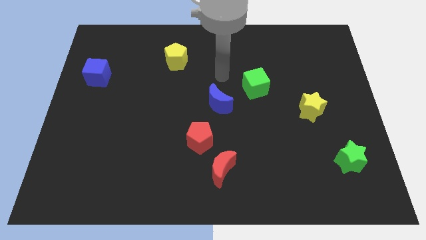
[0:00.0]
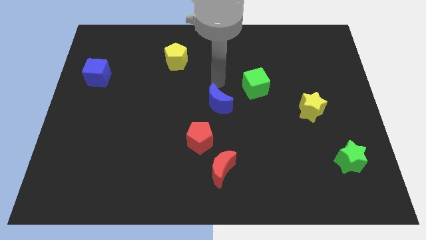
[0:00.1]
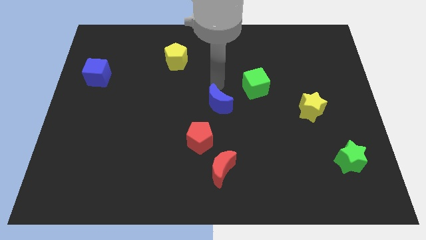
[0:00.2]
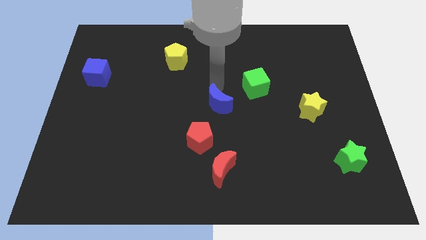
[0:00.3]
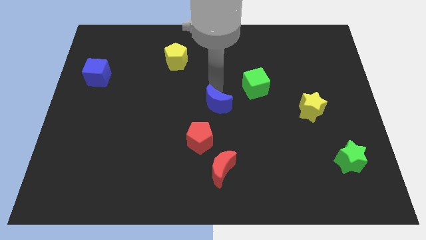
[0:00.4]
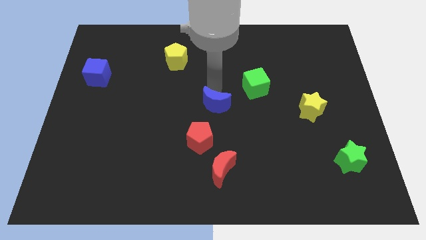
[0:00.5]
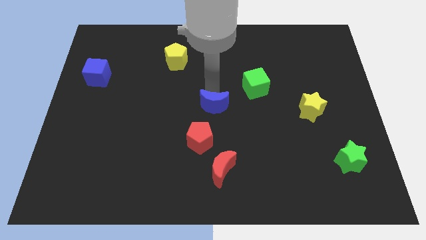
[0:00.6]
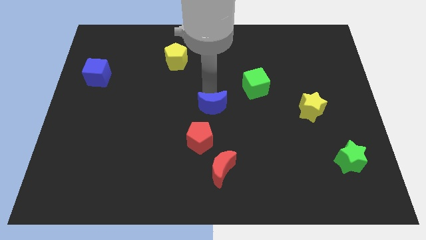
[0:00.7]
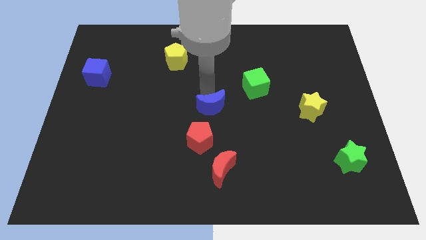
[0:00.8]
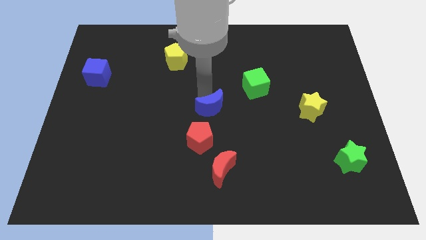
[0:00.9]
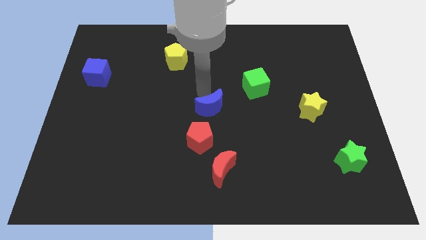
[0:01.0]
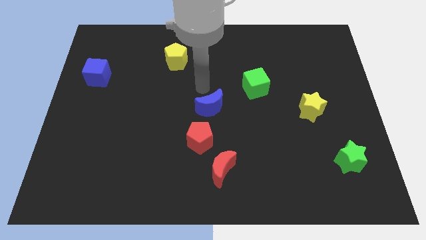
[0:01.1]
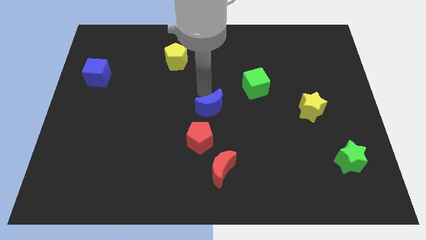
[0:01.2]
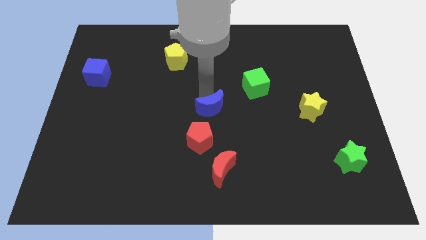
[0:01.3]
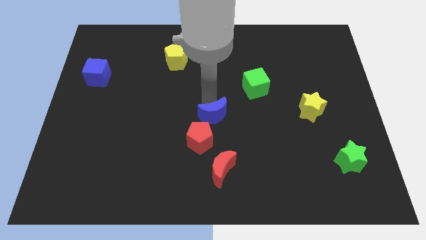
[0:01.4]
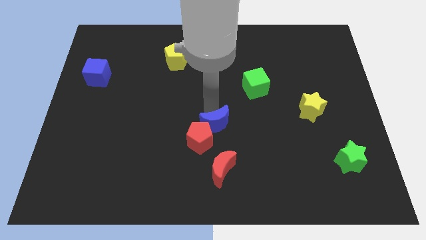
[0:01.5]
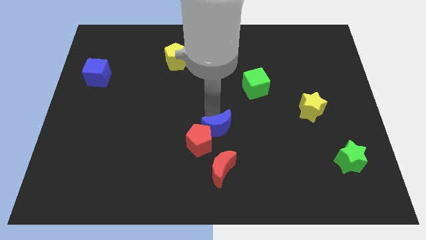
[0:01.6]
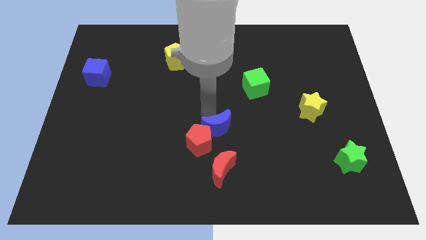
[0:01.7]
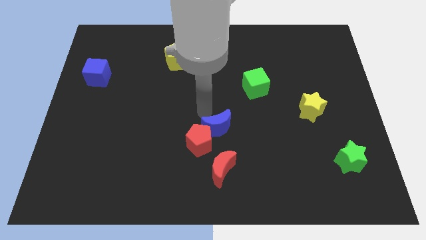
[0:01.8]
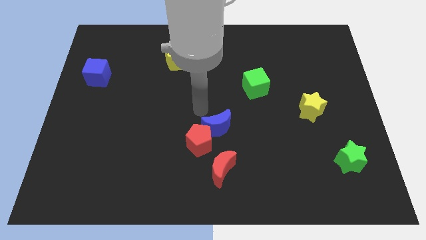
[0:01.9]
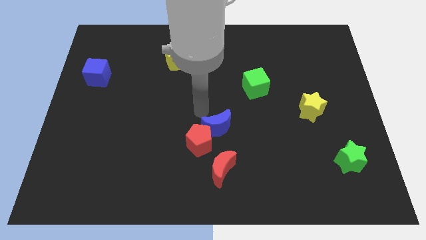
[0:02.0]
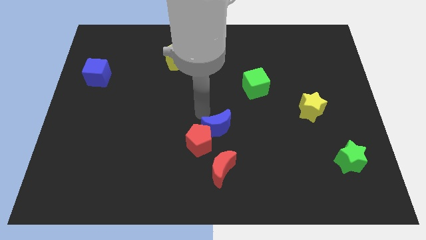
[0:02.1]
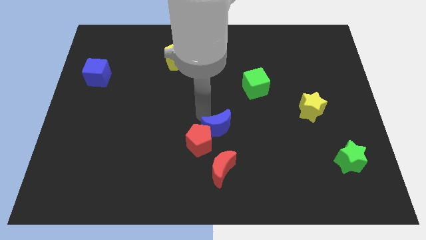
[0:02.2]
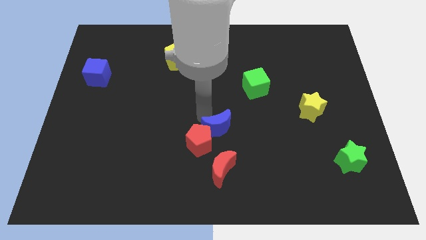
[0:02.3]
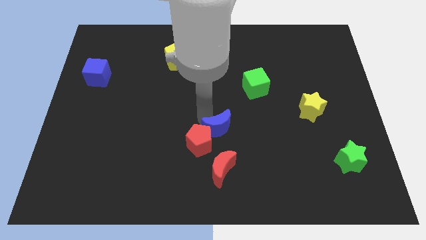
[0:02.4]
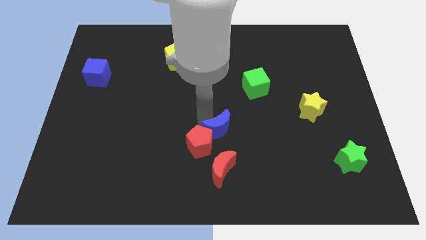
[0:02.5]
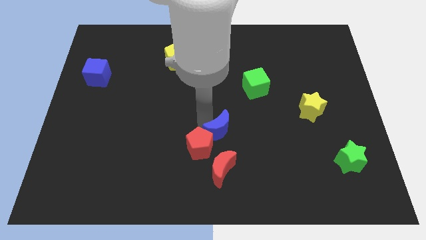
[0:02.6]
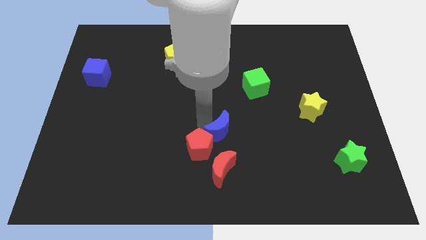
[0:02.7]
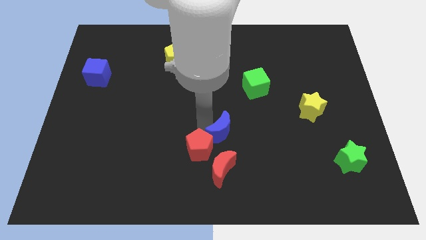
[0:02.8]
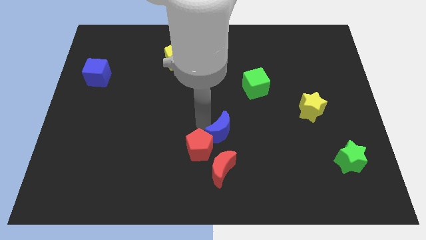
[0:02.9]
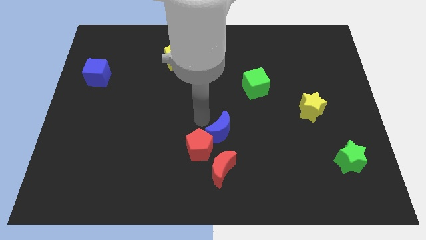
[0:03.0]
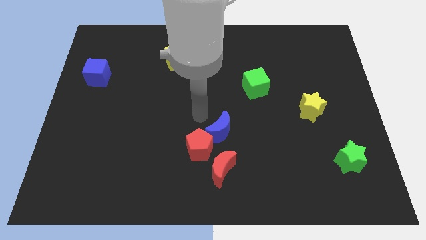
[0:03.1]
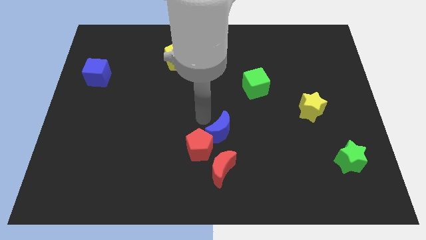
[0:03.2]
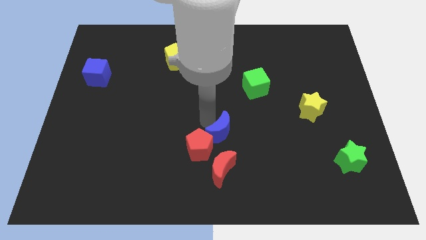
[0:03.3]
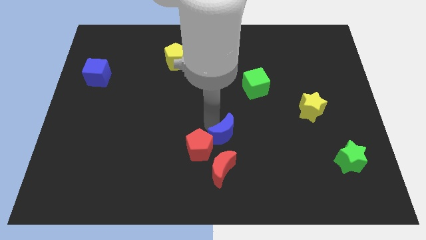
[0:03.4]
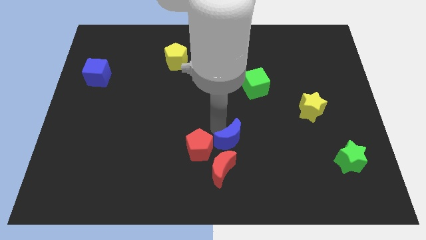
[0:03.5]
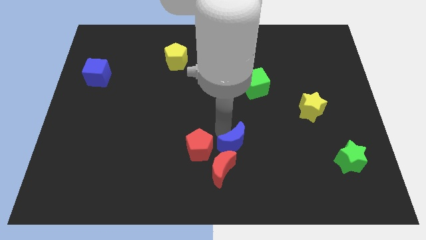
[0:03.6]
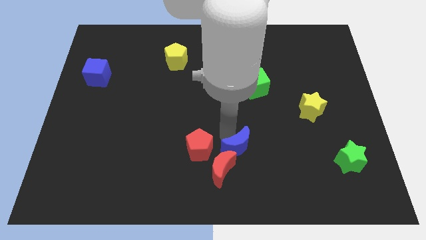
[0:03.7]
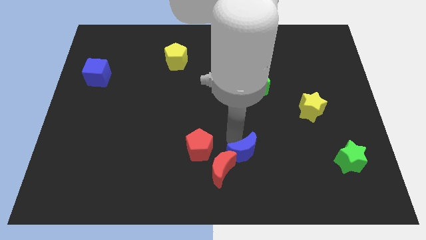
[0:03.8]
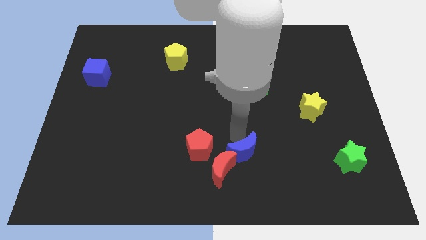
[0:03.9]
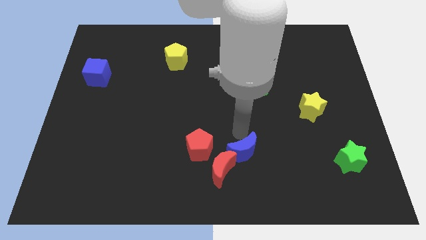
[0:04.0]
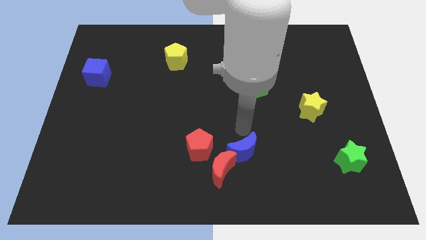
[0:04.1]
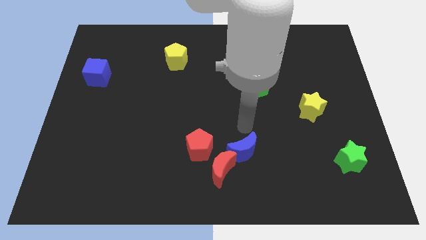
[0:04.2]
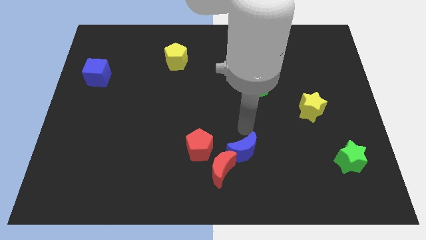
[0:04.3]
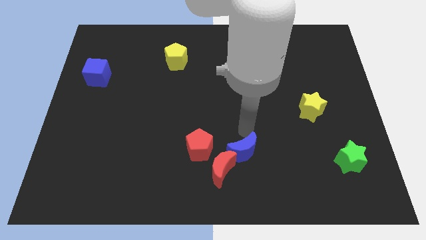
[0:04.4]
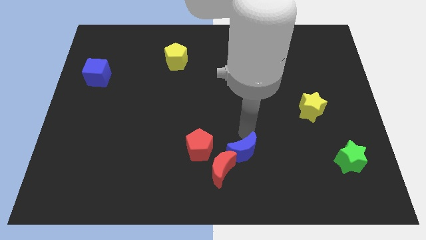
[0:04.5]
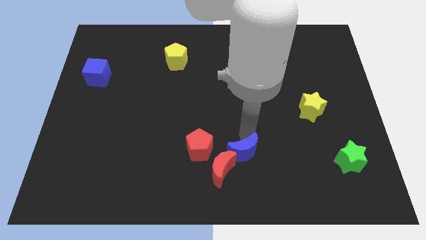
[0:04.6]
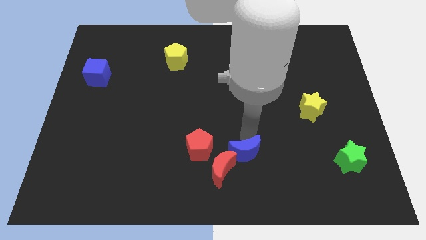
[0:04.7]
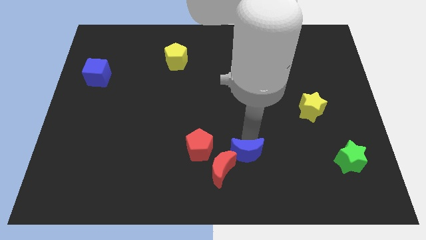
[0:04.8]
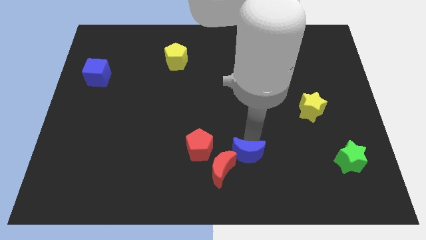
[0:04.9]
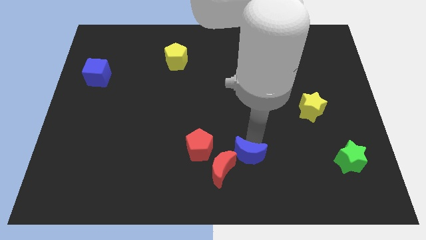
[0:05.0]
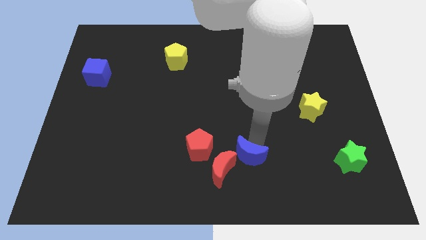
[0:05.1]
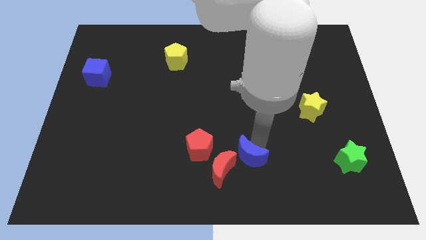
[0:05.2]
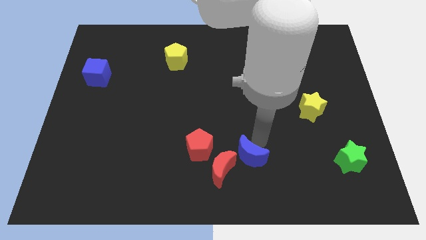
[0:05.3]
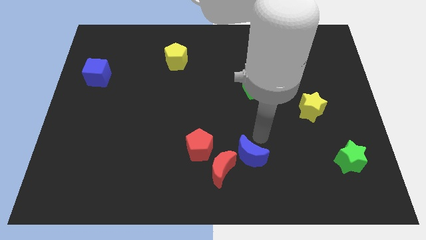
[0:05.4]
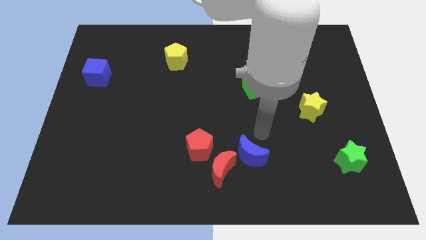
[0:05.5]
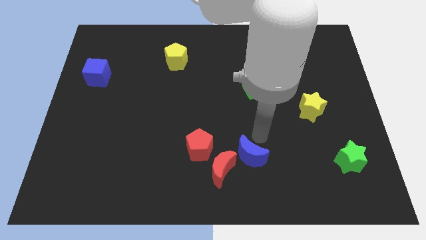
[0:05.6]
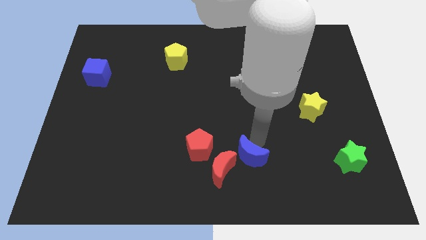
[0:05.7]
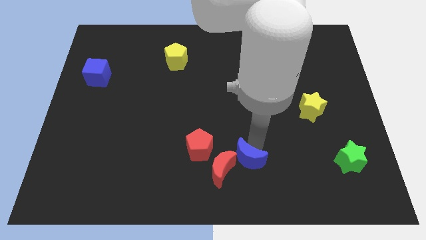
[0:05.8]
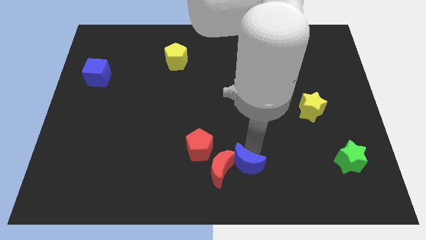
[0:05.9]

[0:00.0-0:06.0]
push the blue moon to the bottom side
